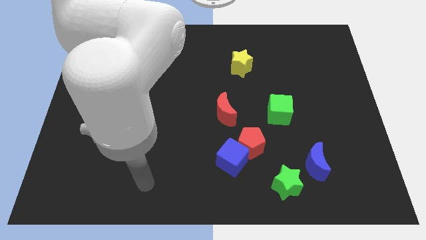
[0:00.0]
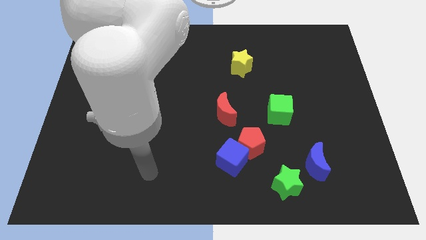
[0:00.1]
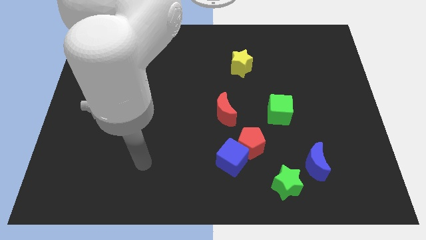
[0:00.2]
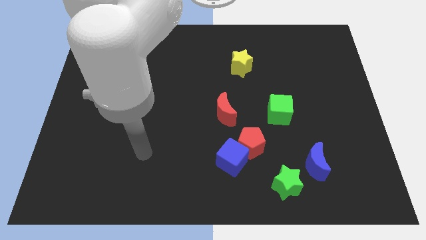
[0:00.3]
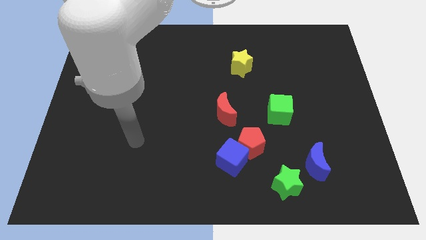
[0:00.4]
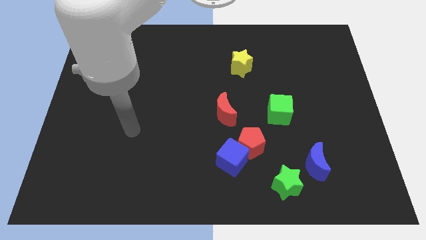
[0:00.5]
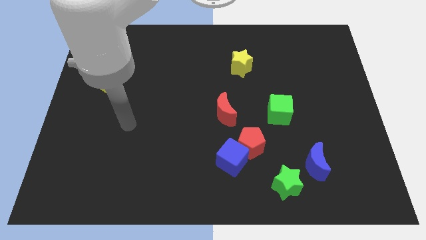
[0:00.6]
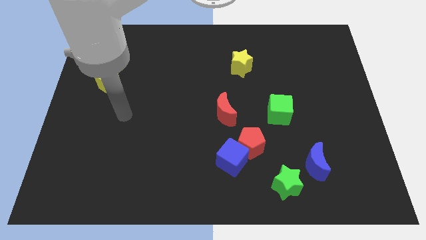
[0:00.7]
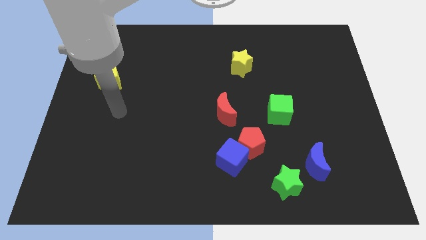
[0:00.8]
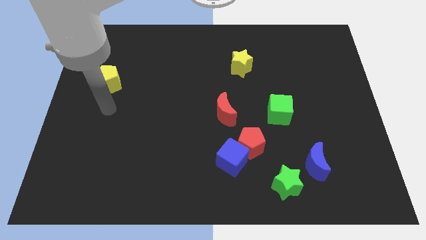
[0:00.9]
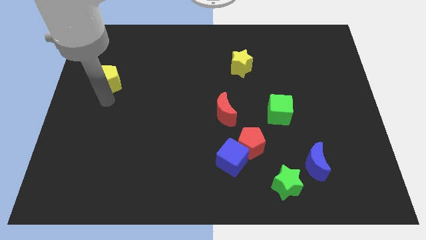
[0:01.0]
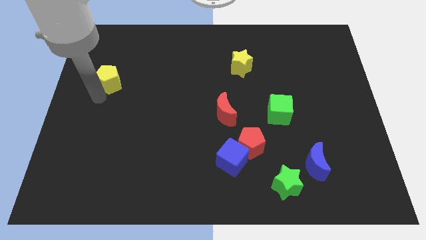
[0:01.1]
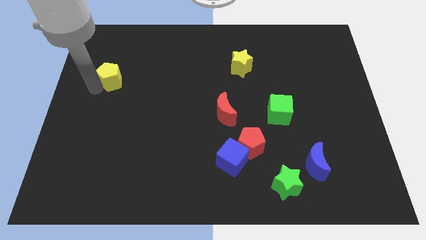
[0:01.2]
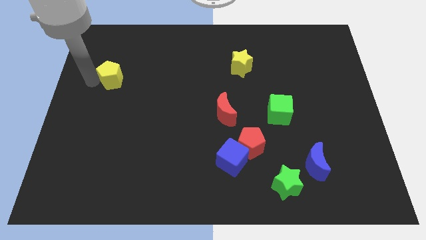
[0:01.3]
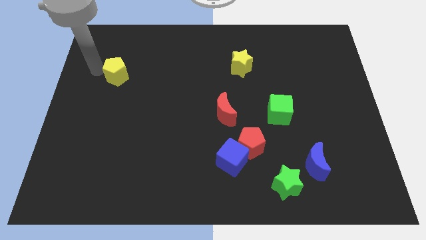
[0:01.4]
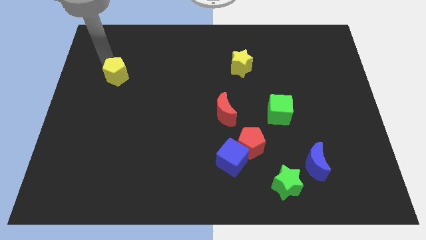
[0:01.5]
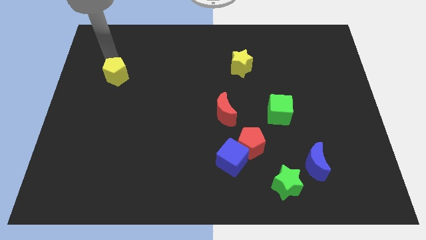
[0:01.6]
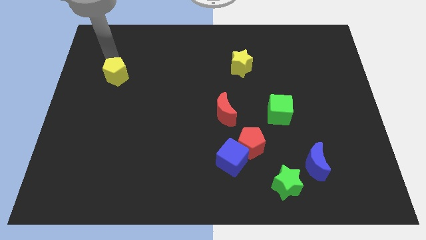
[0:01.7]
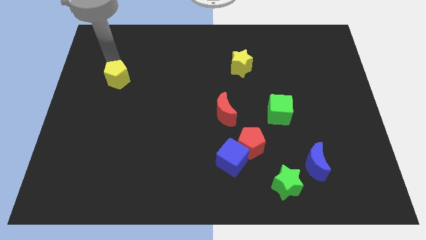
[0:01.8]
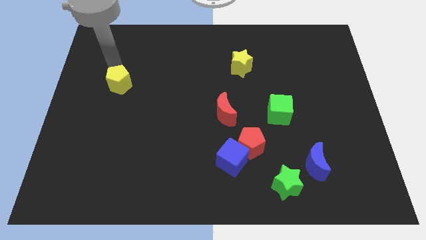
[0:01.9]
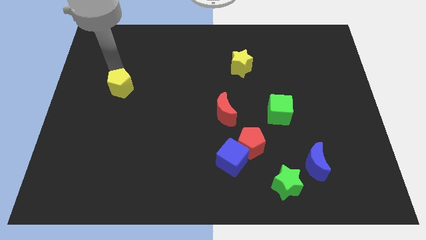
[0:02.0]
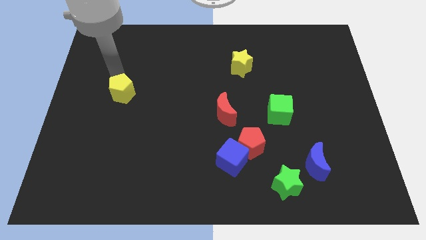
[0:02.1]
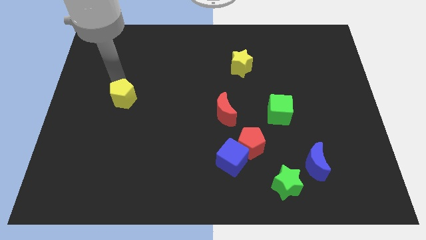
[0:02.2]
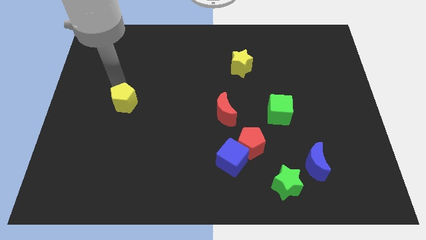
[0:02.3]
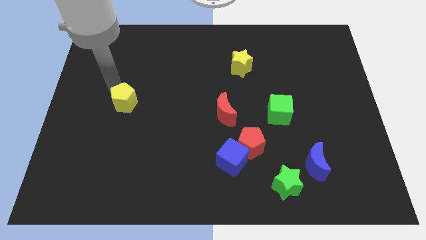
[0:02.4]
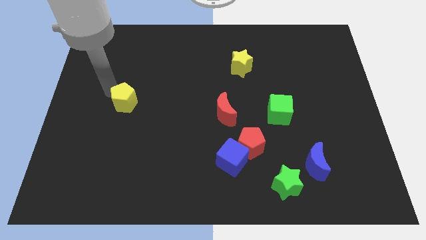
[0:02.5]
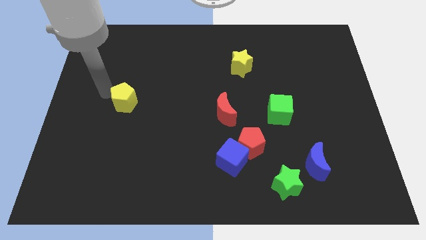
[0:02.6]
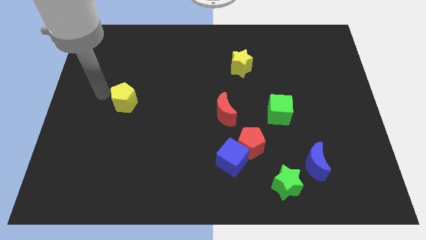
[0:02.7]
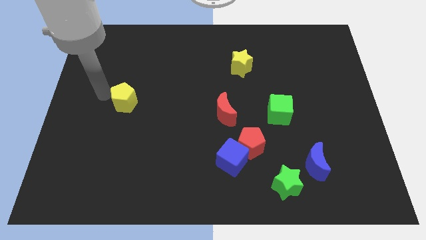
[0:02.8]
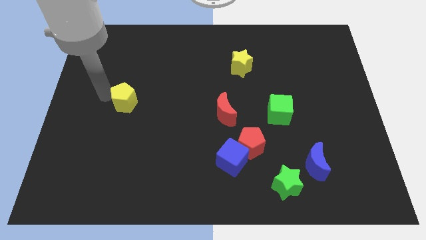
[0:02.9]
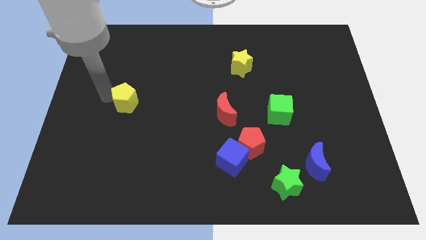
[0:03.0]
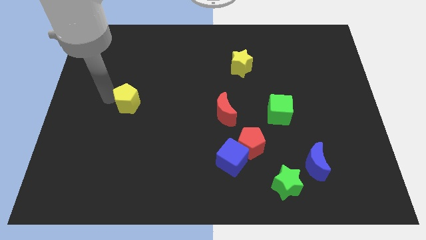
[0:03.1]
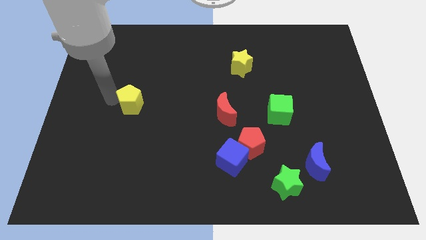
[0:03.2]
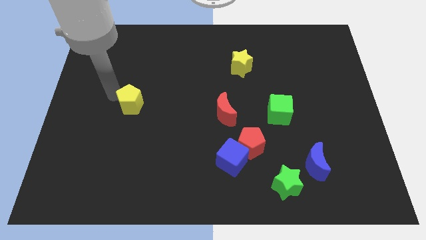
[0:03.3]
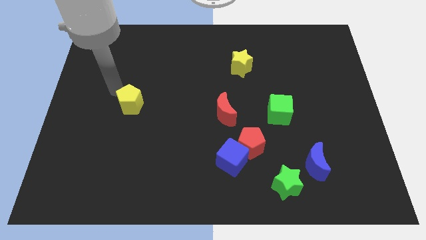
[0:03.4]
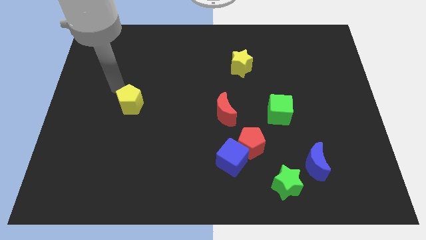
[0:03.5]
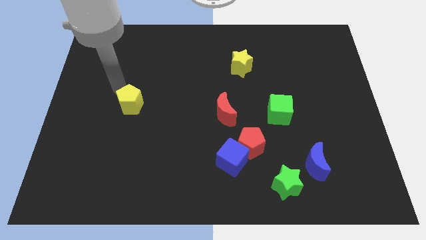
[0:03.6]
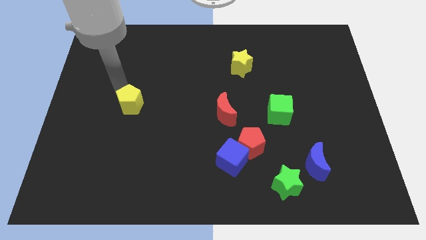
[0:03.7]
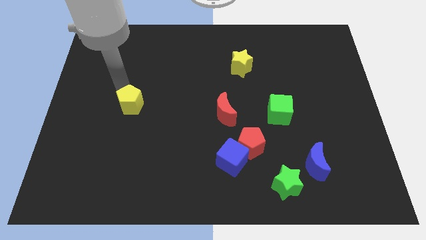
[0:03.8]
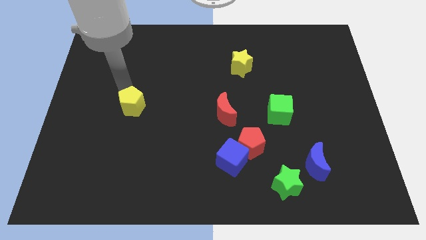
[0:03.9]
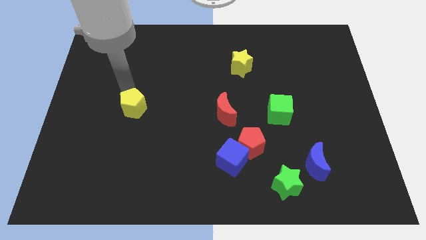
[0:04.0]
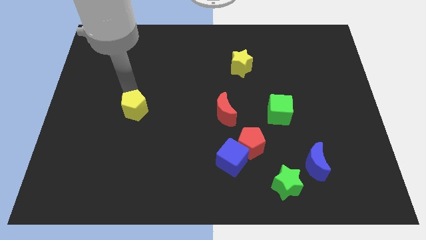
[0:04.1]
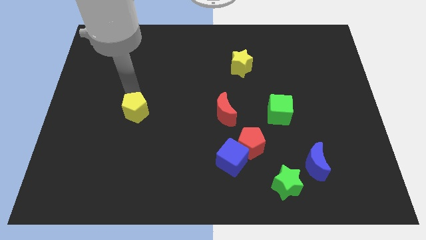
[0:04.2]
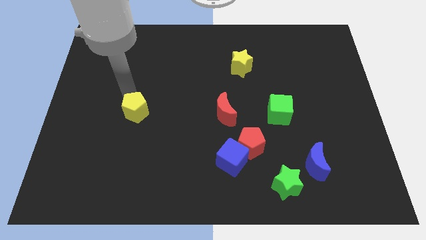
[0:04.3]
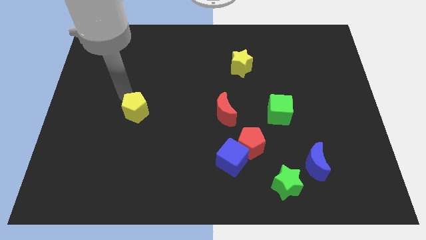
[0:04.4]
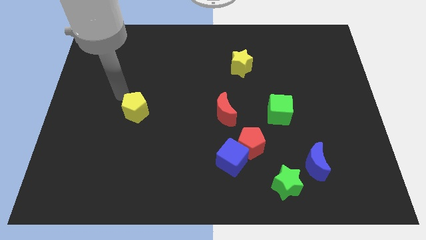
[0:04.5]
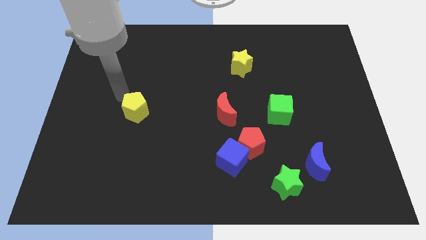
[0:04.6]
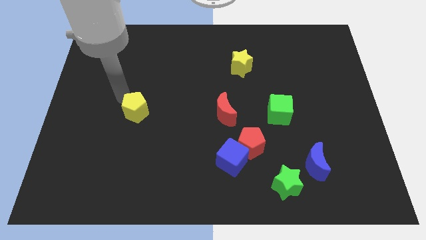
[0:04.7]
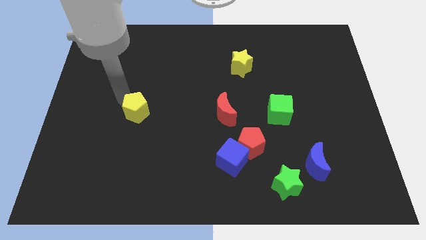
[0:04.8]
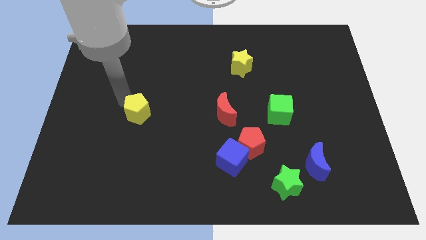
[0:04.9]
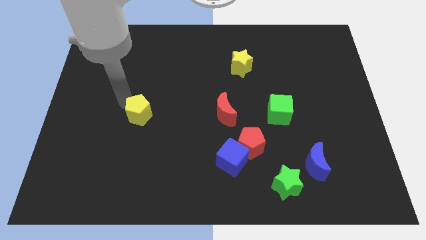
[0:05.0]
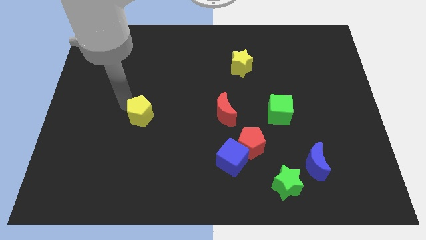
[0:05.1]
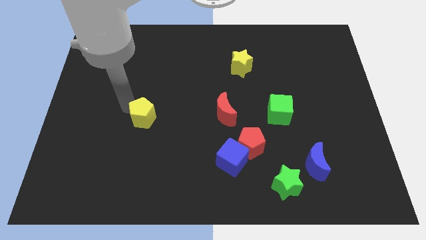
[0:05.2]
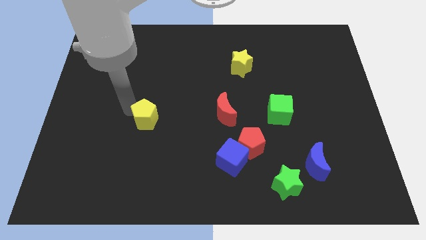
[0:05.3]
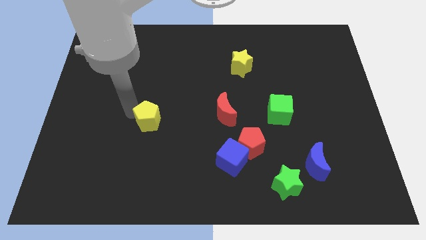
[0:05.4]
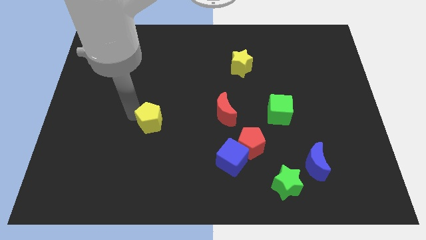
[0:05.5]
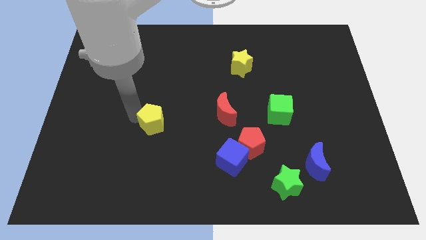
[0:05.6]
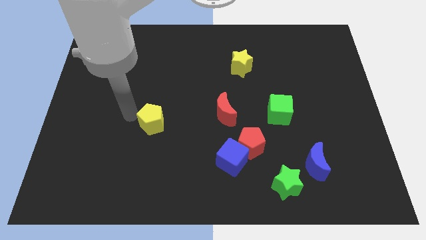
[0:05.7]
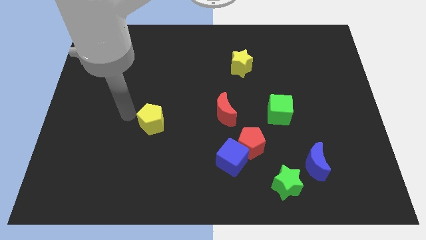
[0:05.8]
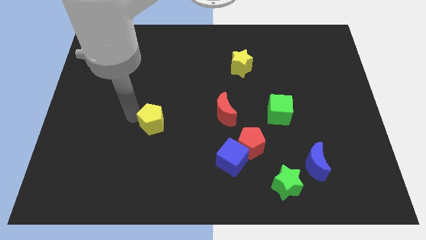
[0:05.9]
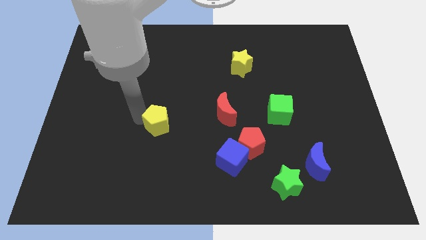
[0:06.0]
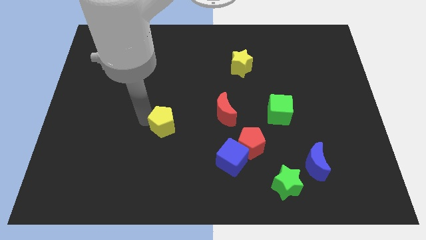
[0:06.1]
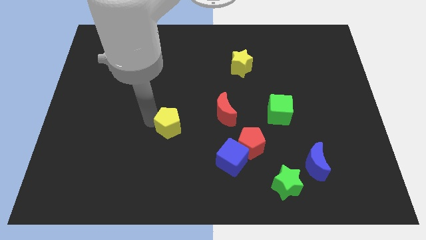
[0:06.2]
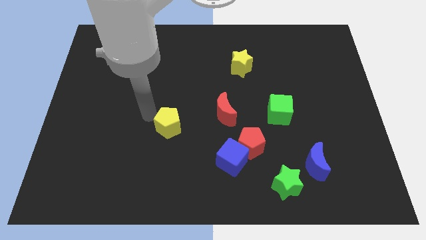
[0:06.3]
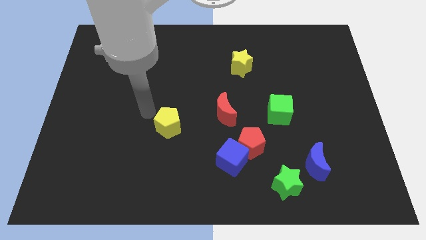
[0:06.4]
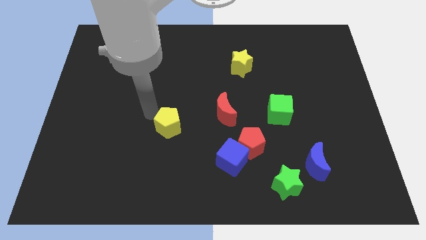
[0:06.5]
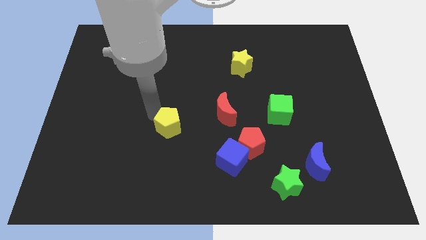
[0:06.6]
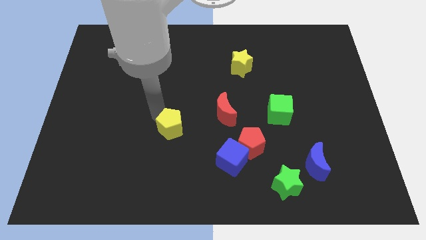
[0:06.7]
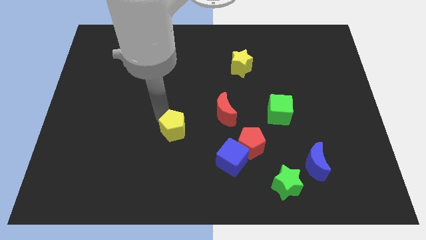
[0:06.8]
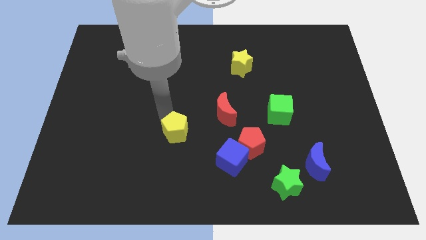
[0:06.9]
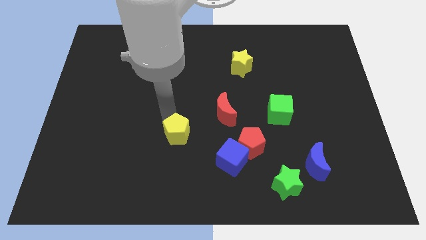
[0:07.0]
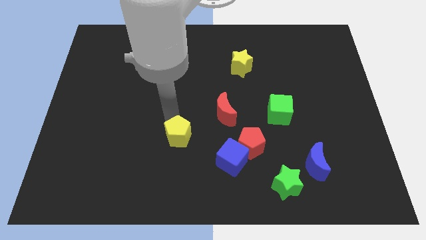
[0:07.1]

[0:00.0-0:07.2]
put the yellow pentagon just left of the red pentagon
